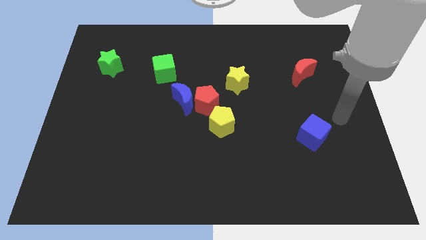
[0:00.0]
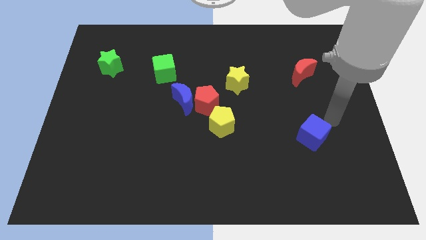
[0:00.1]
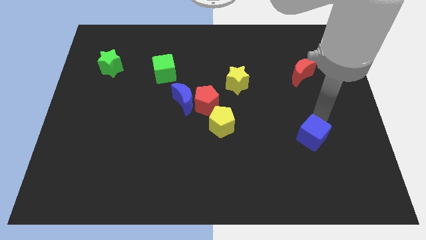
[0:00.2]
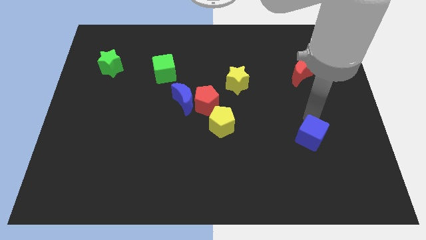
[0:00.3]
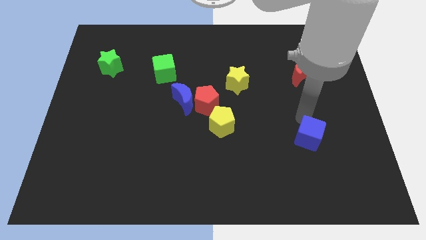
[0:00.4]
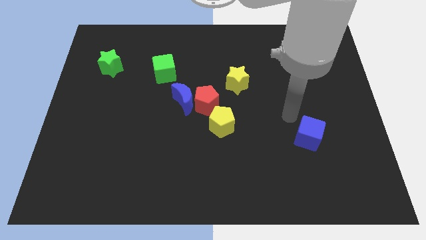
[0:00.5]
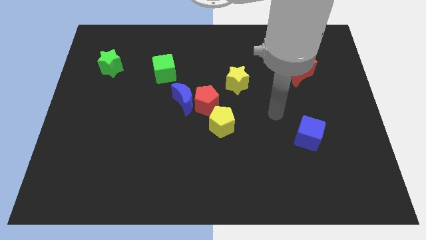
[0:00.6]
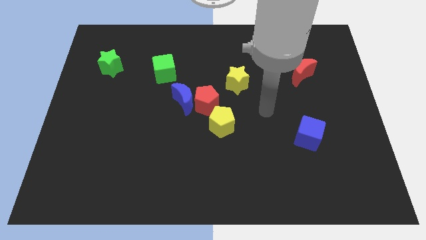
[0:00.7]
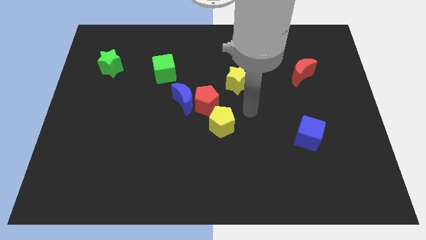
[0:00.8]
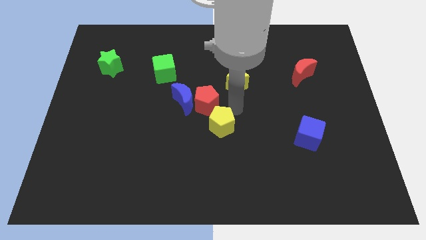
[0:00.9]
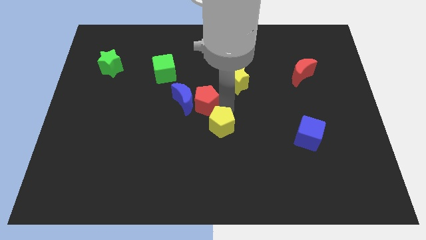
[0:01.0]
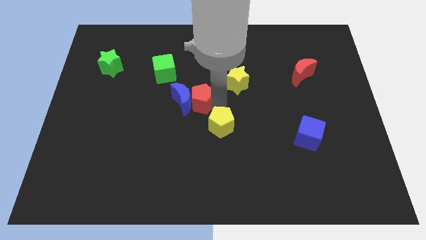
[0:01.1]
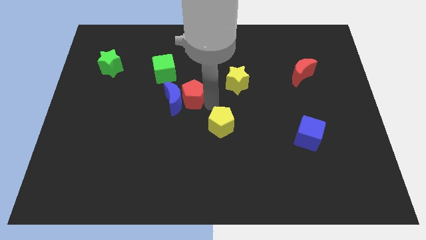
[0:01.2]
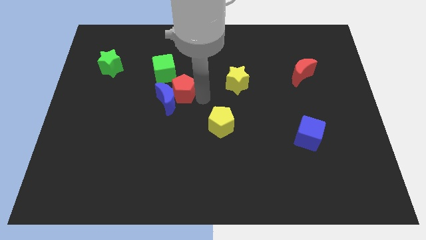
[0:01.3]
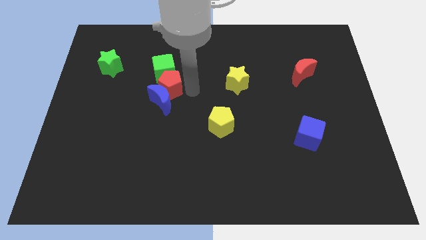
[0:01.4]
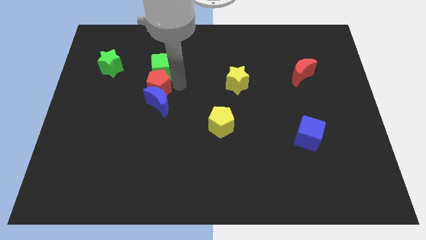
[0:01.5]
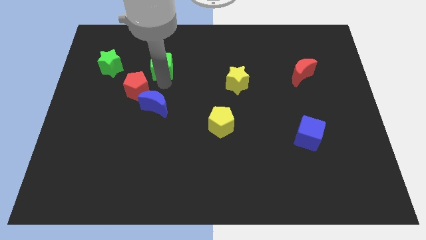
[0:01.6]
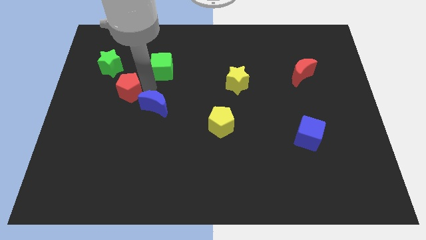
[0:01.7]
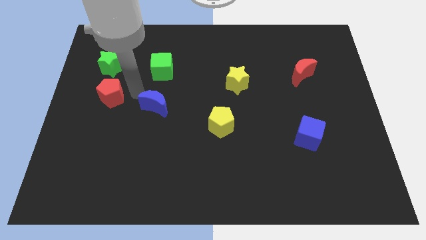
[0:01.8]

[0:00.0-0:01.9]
move the blue moon away from the red pentagon

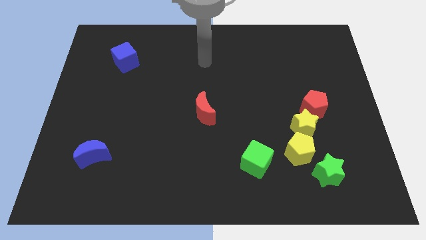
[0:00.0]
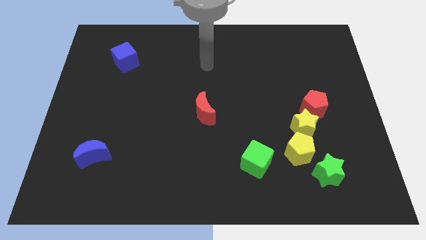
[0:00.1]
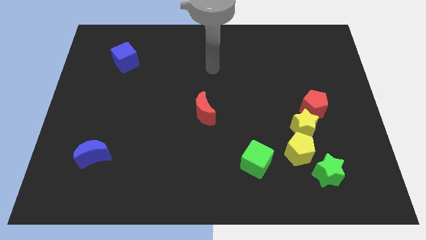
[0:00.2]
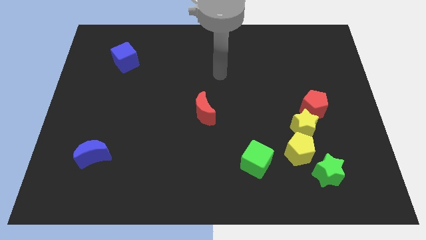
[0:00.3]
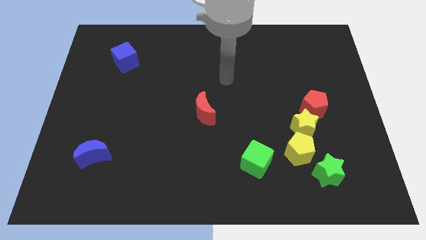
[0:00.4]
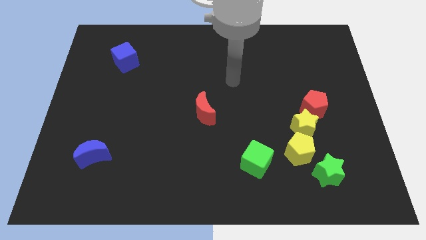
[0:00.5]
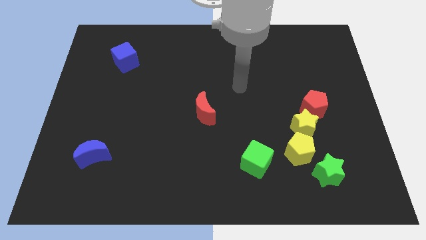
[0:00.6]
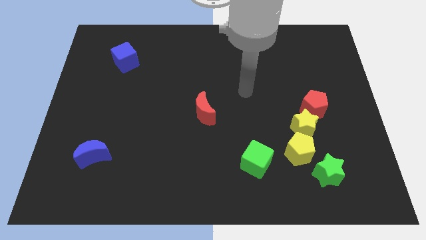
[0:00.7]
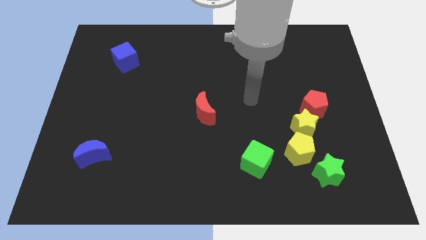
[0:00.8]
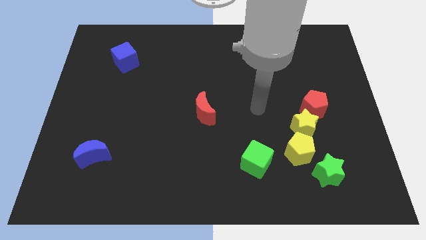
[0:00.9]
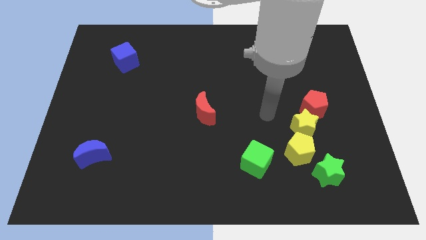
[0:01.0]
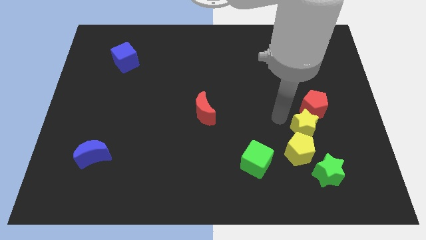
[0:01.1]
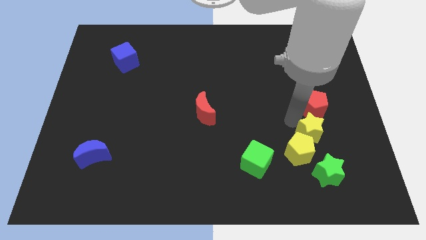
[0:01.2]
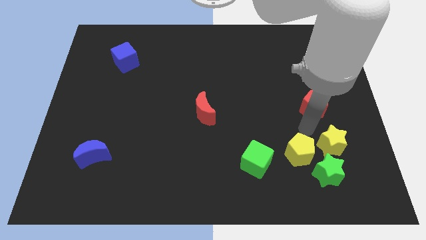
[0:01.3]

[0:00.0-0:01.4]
pull the red pentagon apart from the yellow star

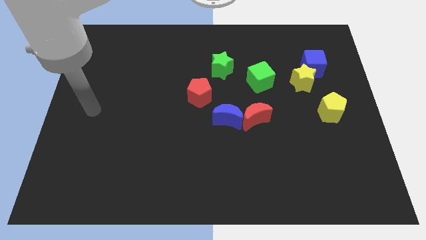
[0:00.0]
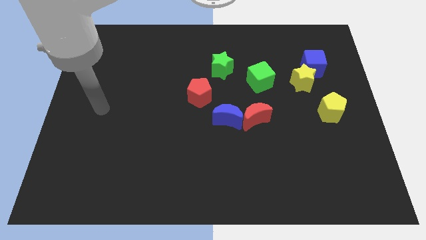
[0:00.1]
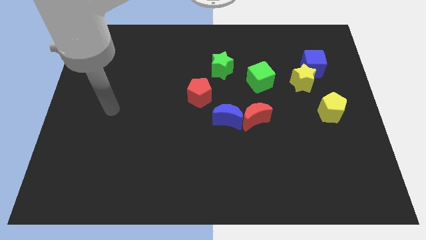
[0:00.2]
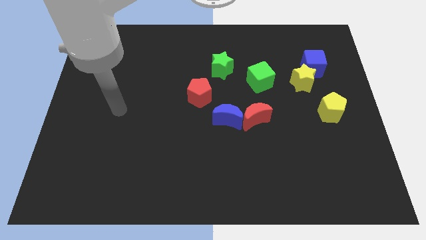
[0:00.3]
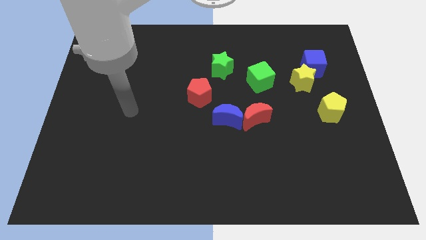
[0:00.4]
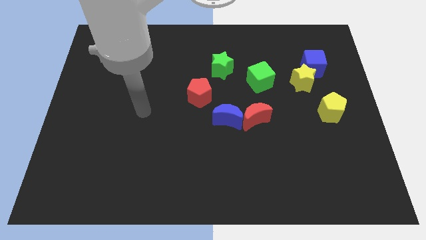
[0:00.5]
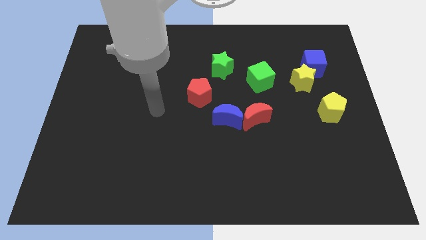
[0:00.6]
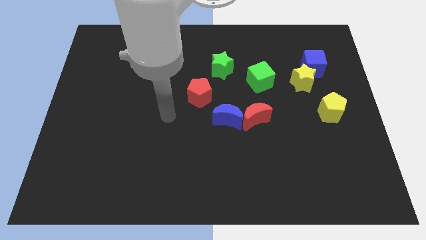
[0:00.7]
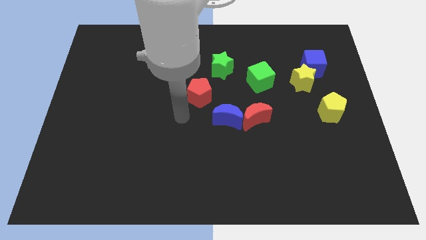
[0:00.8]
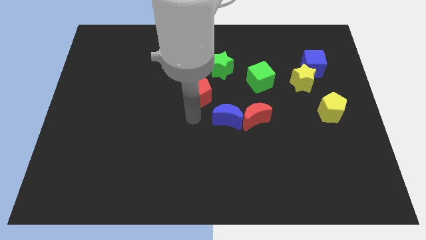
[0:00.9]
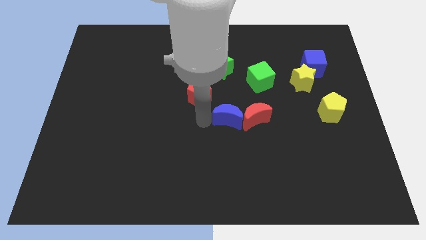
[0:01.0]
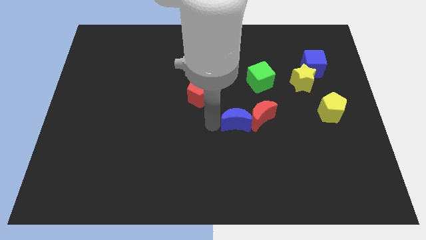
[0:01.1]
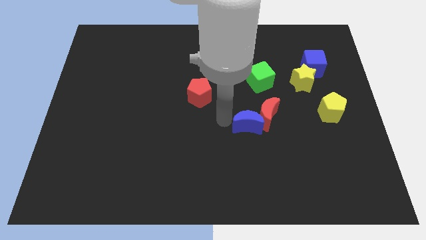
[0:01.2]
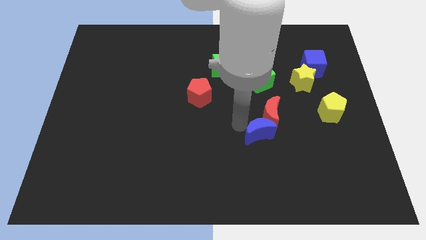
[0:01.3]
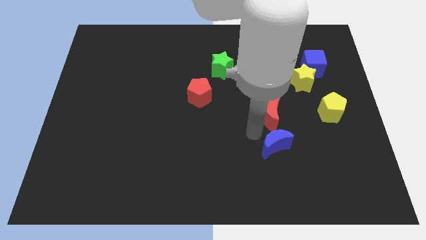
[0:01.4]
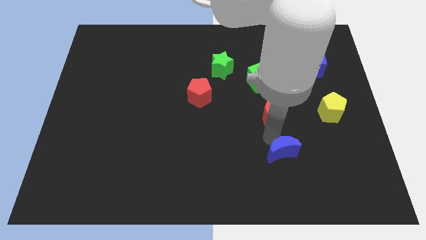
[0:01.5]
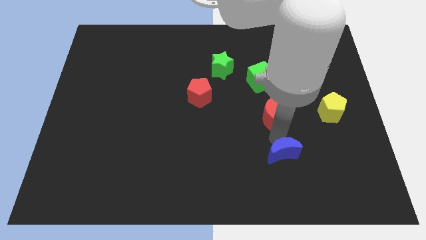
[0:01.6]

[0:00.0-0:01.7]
pull the red moon apart from the blue moon

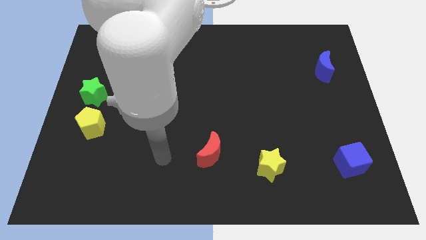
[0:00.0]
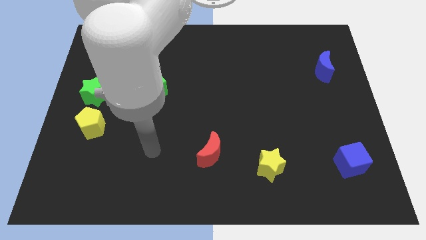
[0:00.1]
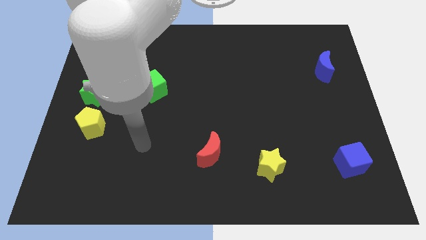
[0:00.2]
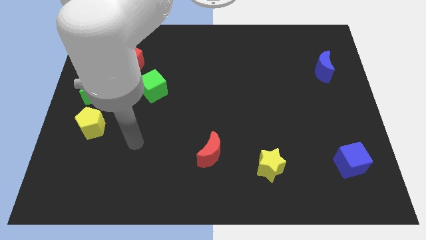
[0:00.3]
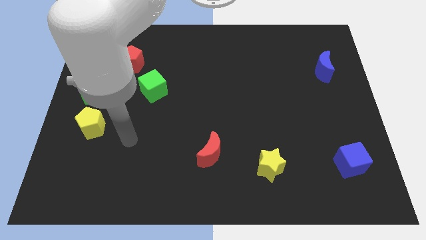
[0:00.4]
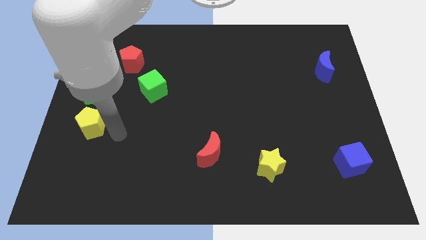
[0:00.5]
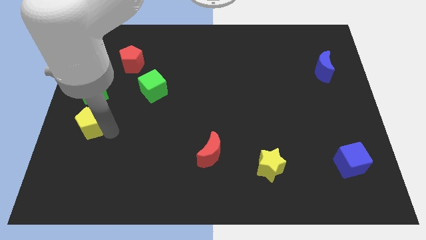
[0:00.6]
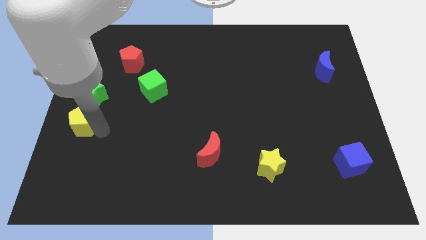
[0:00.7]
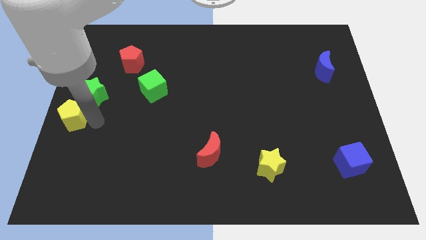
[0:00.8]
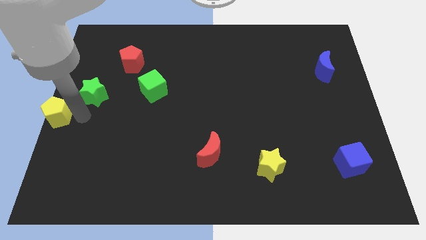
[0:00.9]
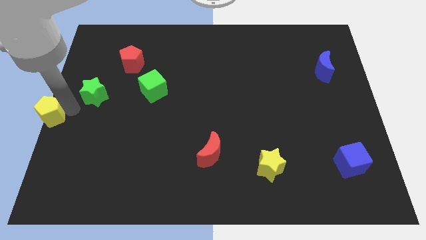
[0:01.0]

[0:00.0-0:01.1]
move the green star away from the yellow pentagon

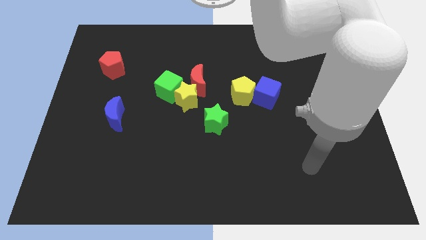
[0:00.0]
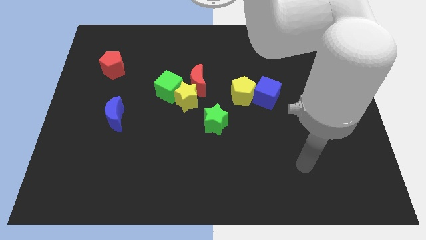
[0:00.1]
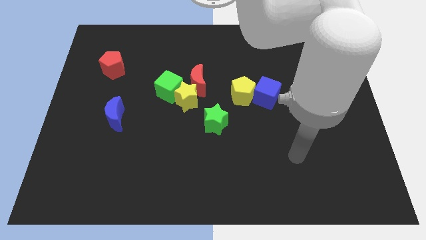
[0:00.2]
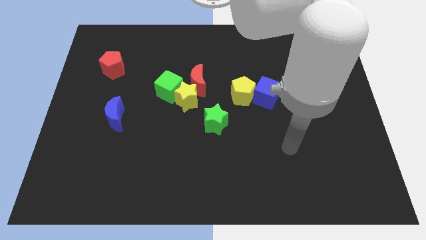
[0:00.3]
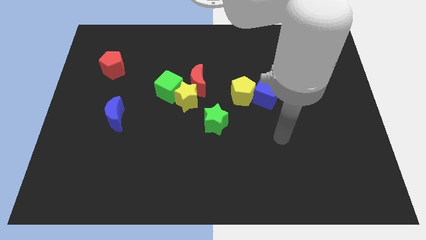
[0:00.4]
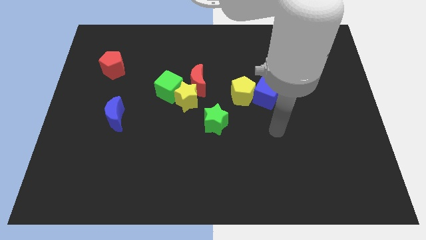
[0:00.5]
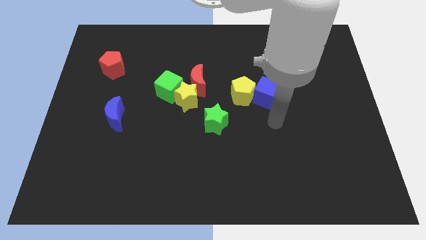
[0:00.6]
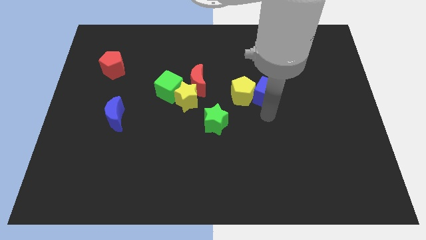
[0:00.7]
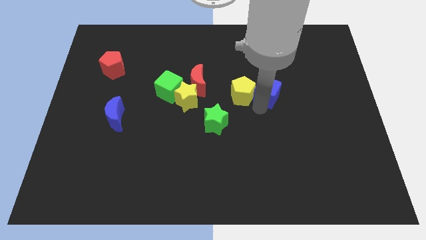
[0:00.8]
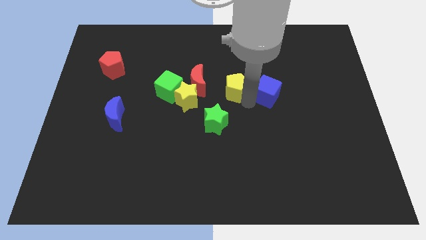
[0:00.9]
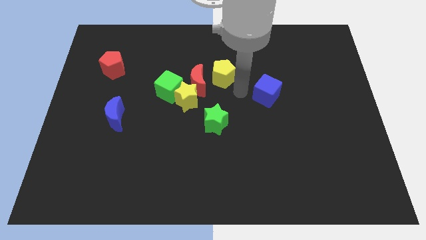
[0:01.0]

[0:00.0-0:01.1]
separate the blue cube from the yellow pentagon

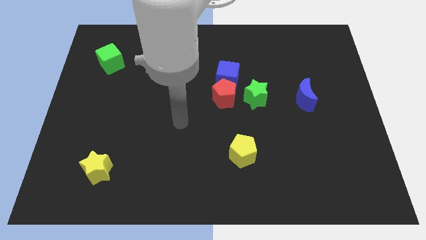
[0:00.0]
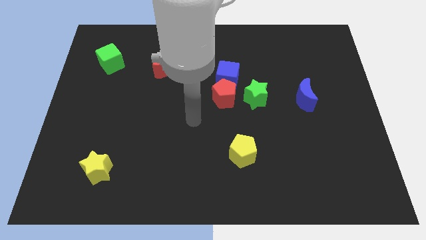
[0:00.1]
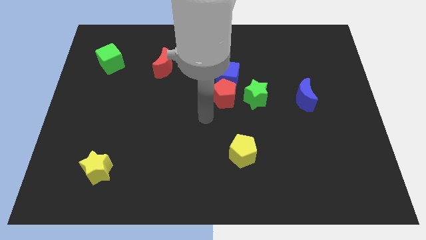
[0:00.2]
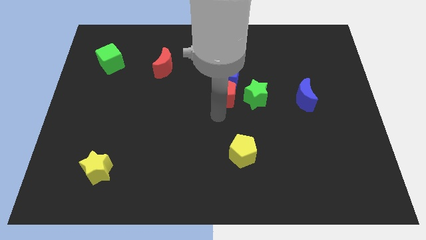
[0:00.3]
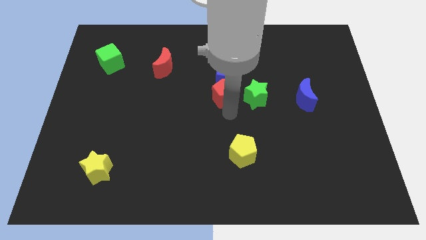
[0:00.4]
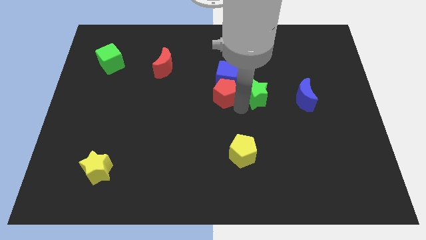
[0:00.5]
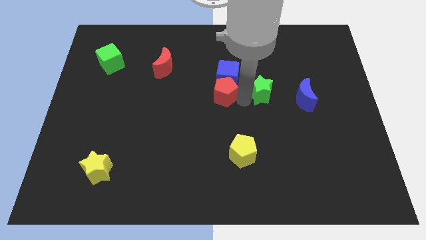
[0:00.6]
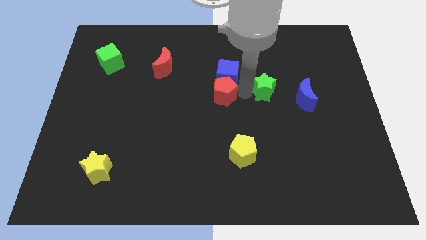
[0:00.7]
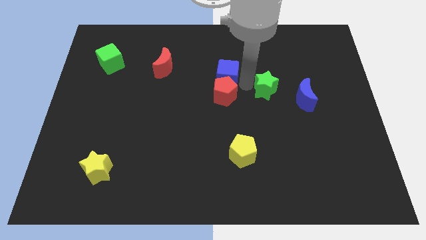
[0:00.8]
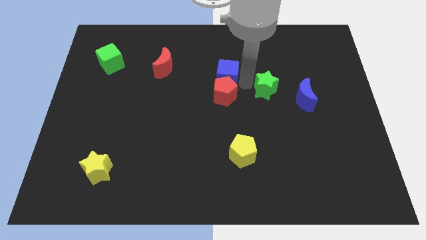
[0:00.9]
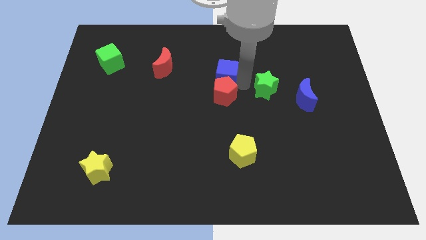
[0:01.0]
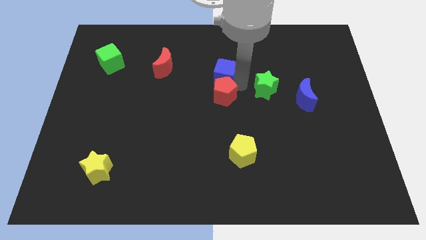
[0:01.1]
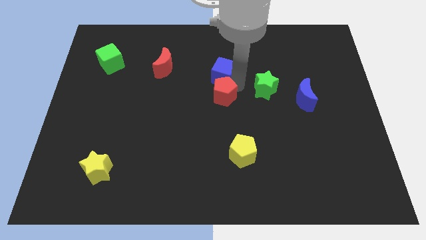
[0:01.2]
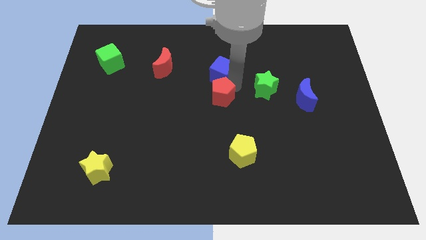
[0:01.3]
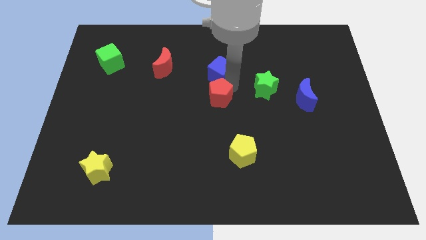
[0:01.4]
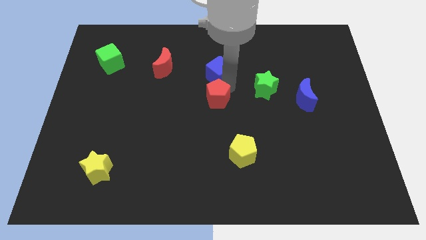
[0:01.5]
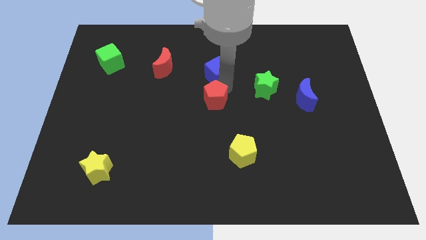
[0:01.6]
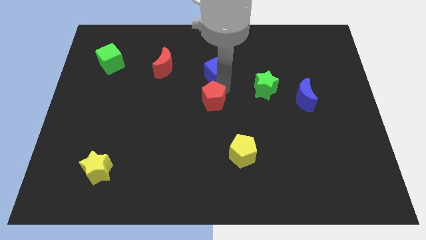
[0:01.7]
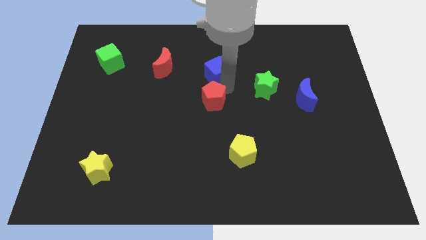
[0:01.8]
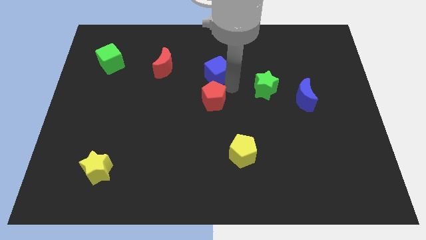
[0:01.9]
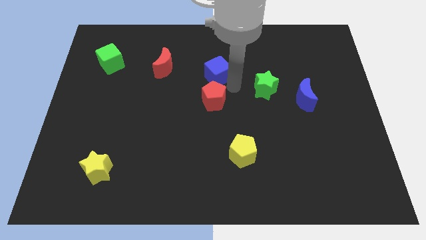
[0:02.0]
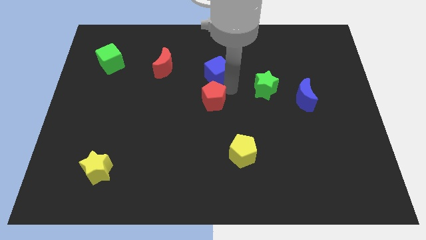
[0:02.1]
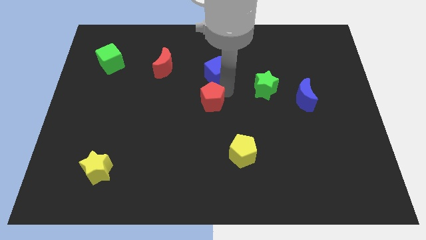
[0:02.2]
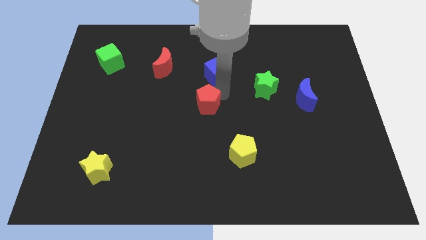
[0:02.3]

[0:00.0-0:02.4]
pull the red pentagon apart from the blue cube and green star
